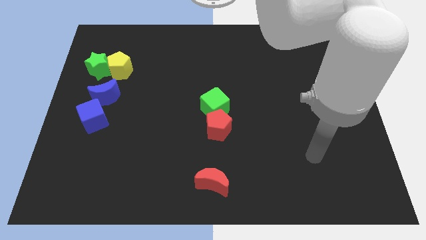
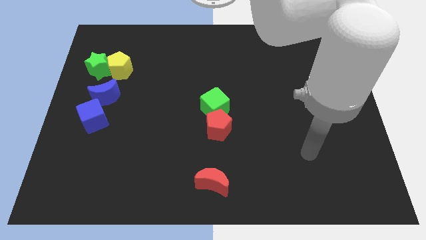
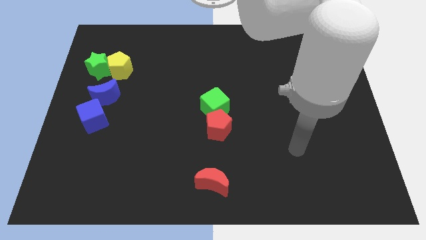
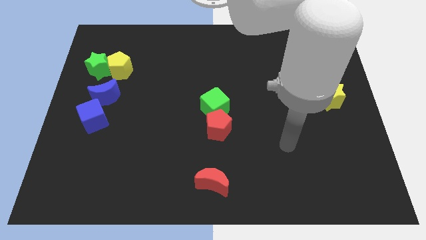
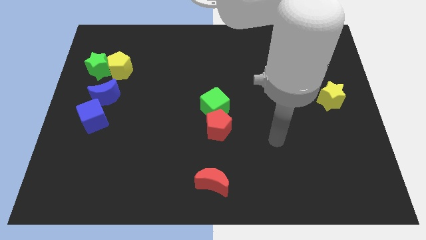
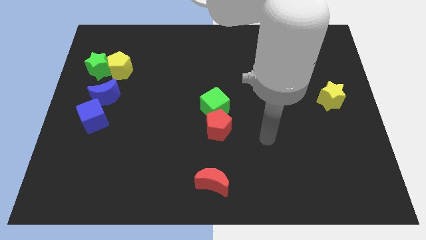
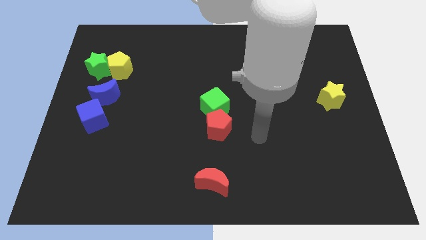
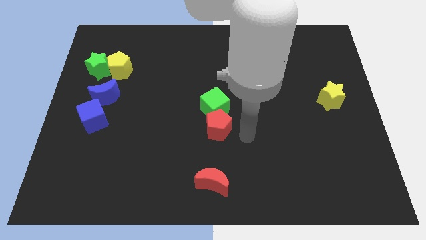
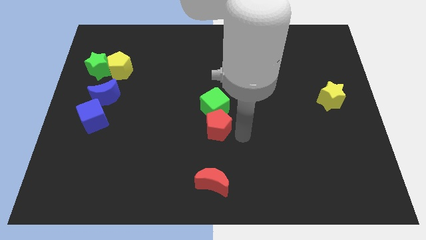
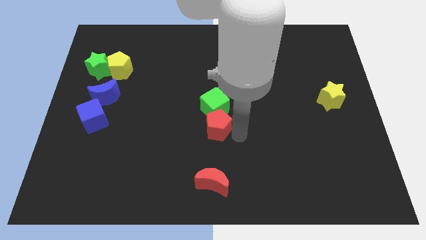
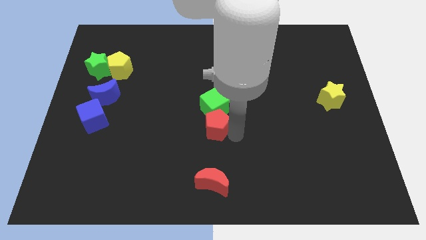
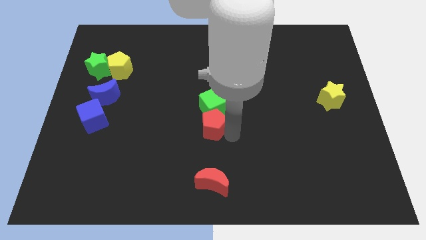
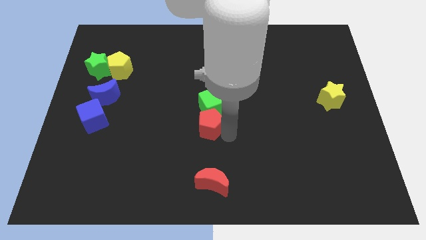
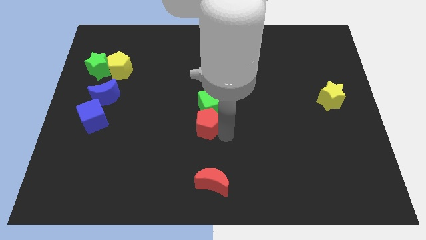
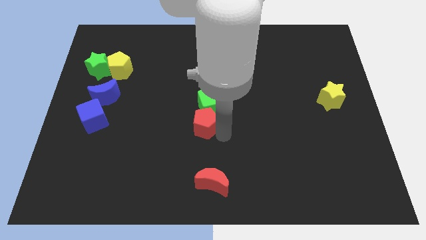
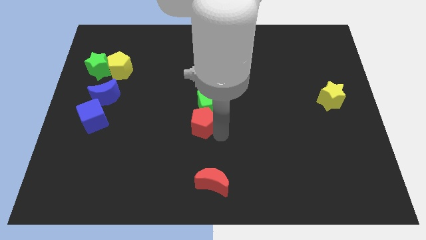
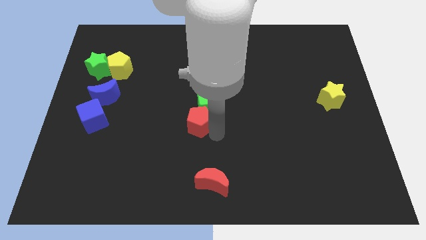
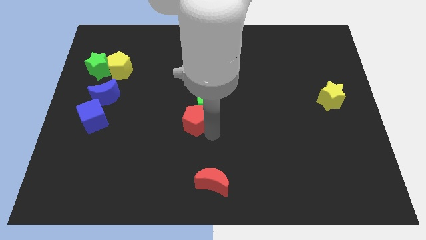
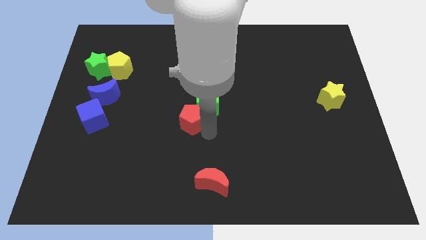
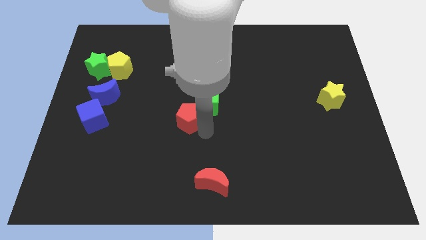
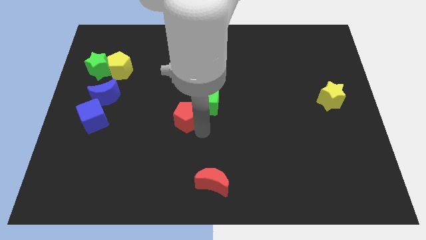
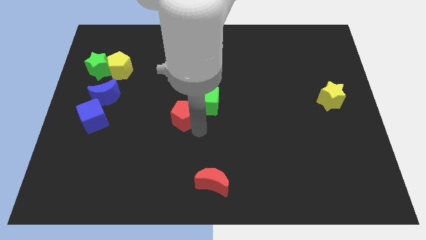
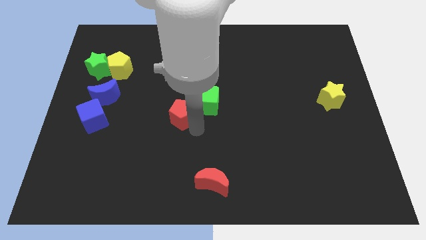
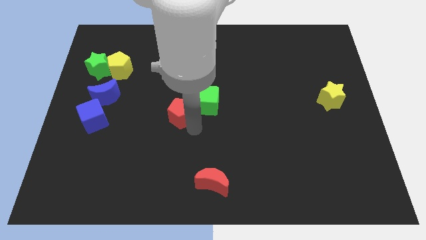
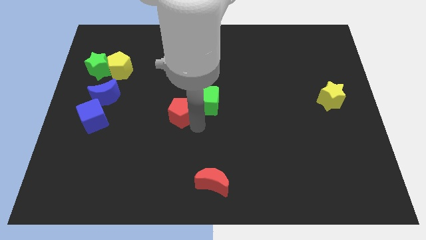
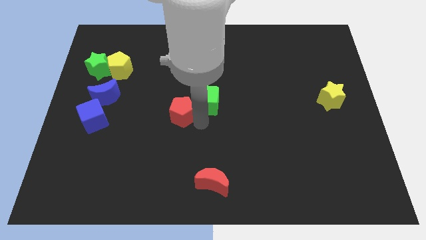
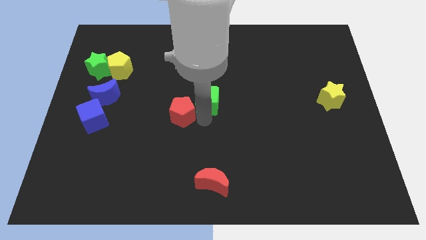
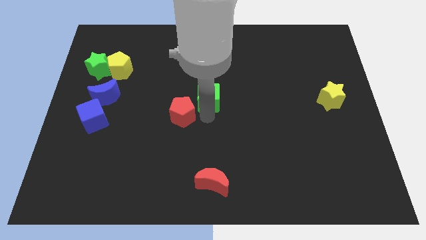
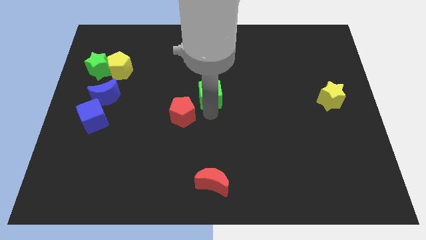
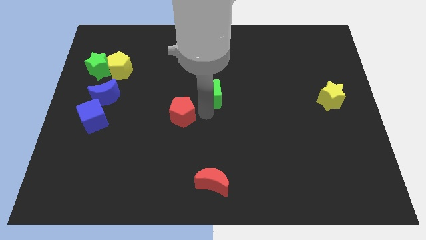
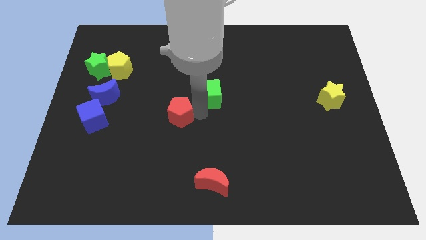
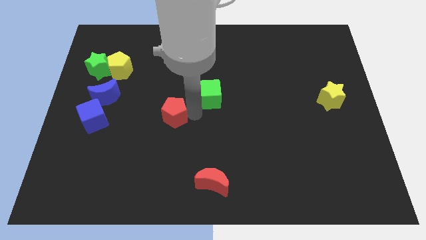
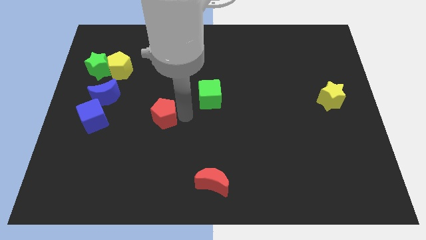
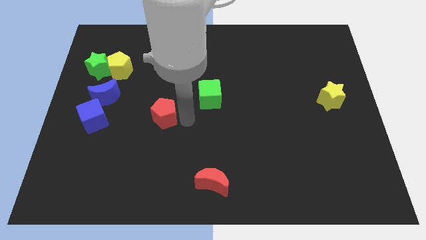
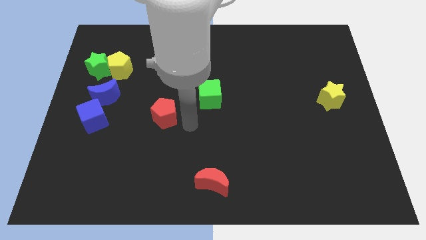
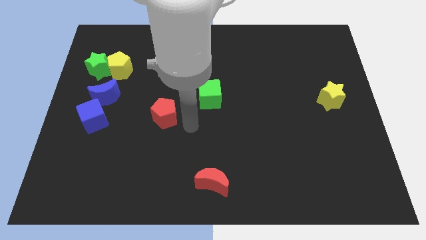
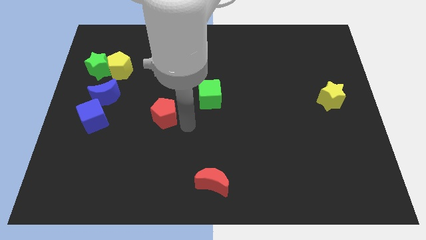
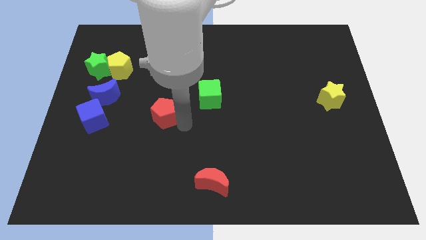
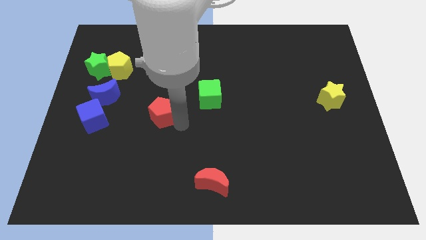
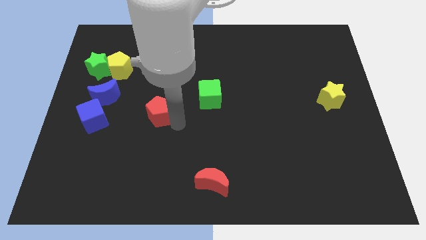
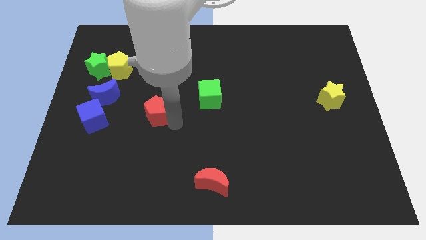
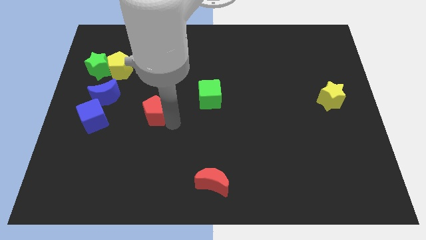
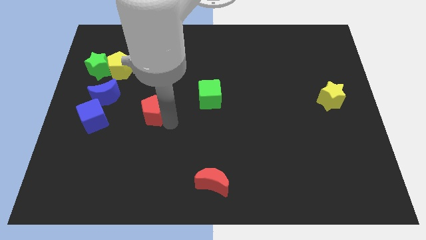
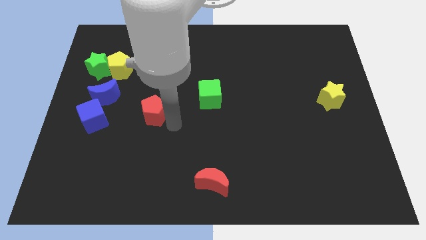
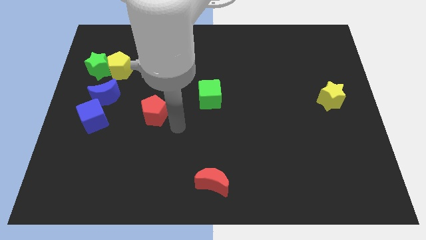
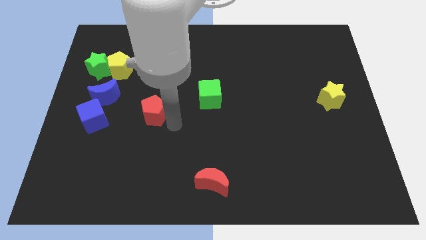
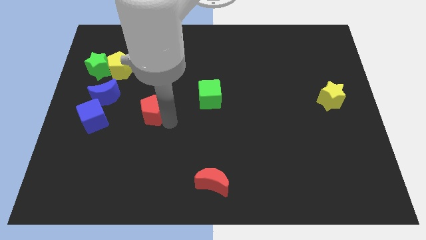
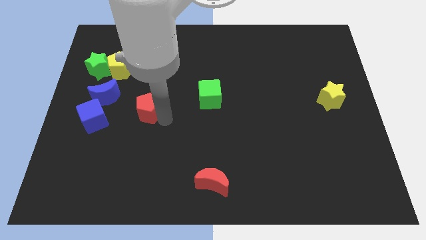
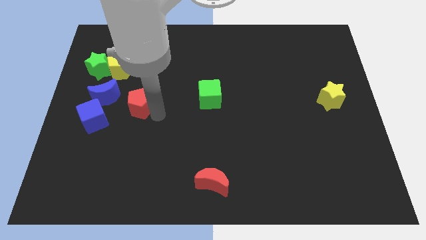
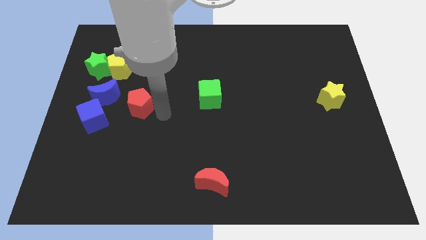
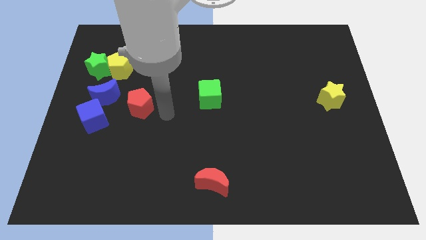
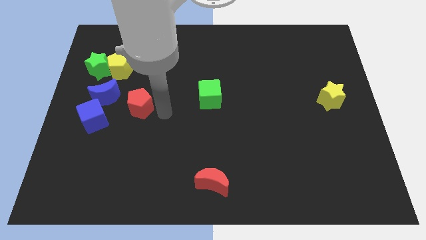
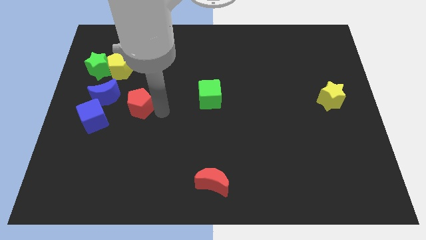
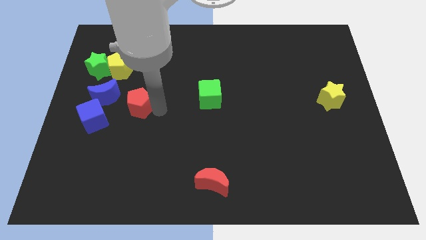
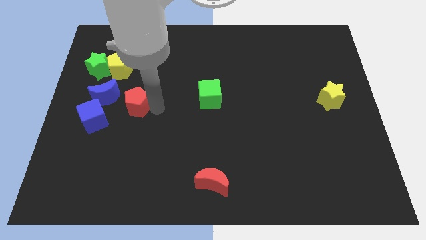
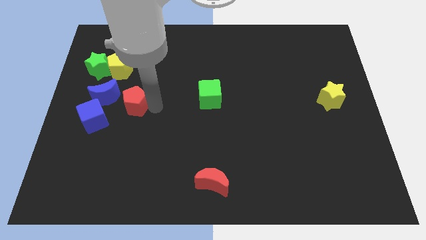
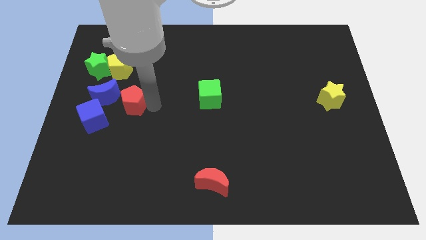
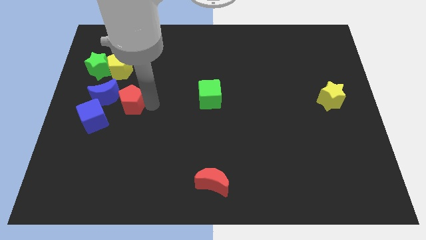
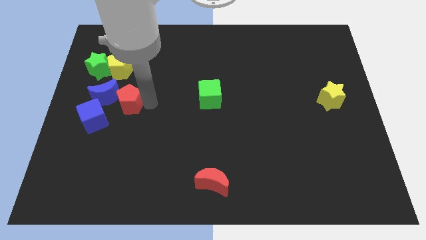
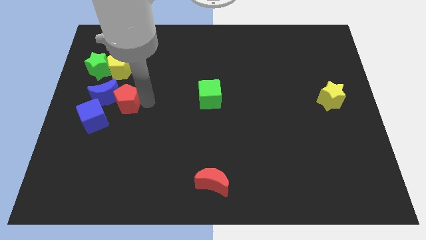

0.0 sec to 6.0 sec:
put the red pentagon next to the blue moon

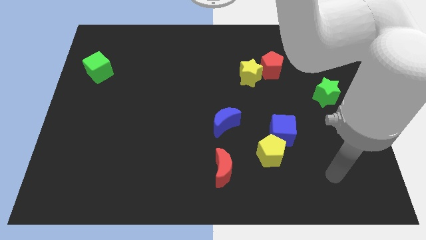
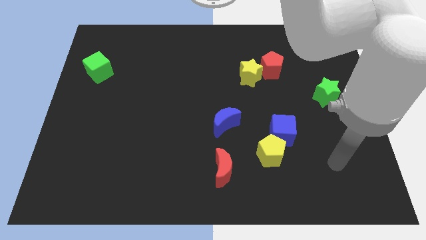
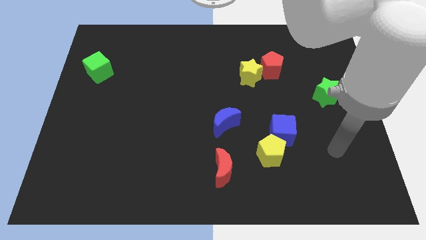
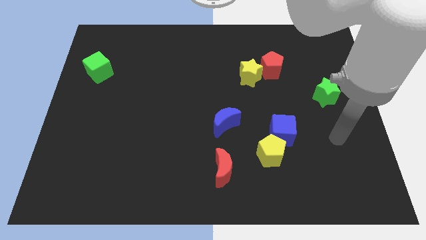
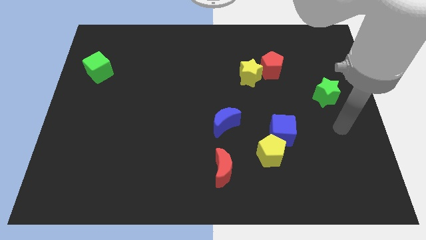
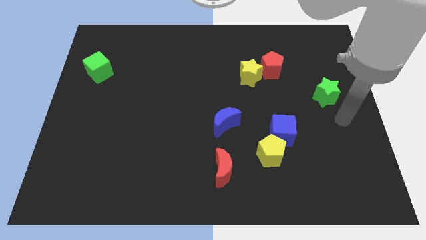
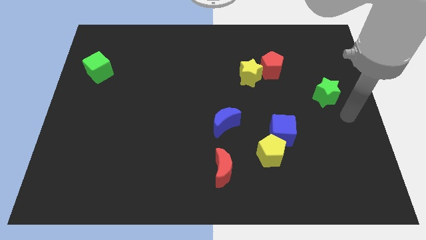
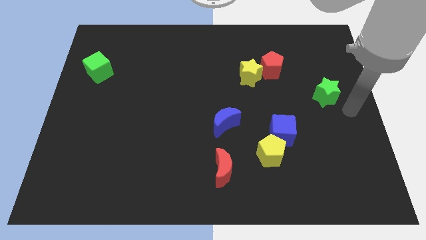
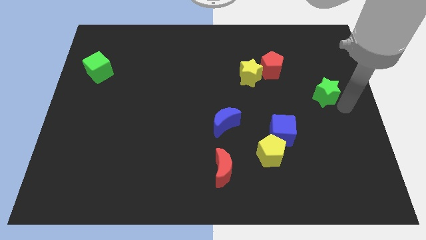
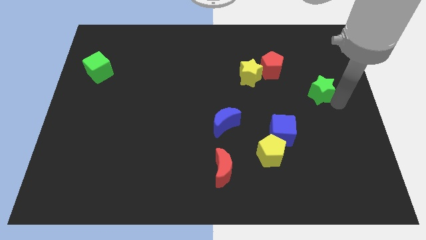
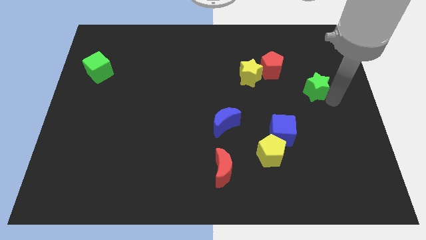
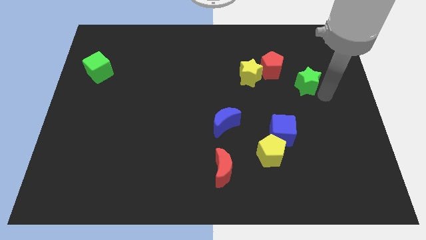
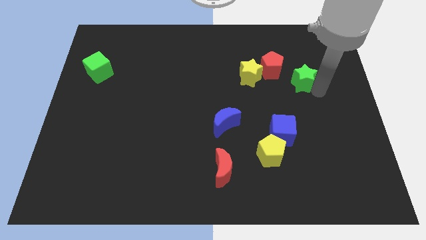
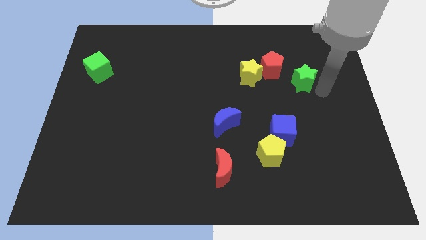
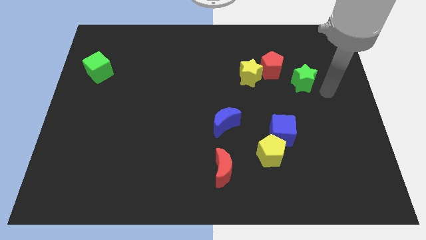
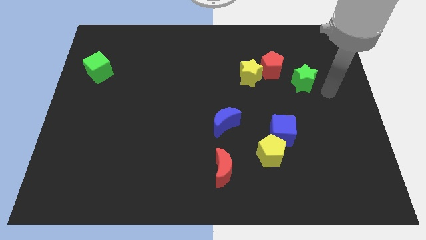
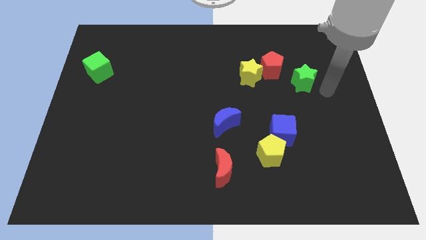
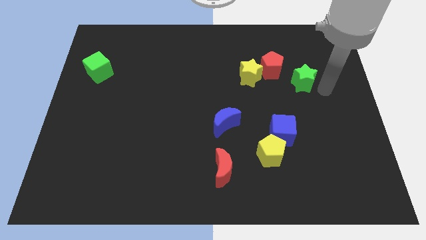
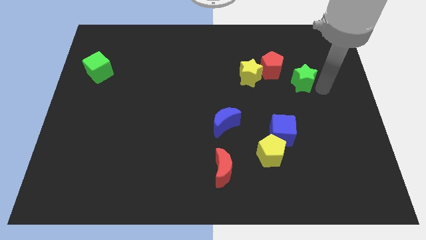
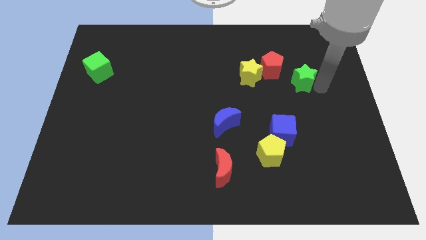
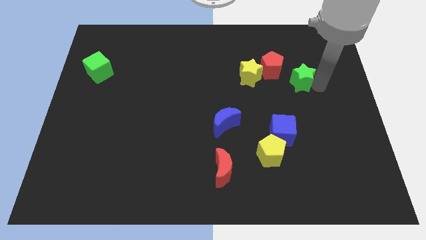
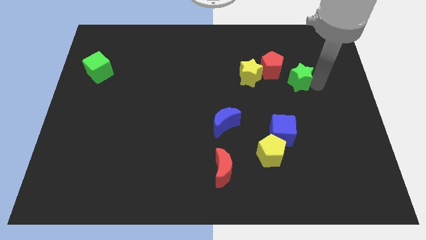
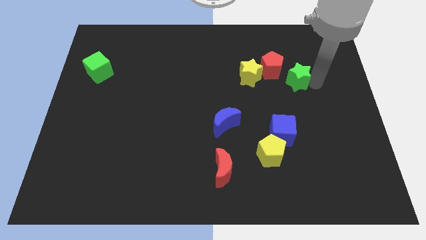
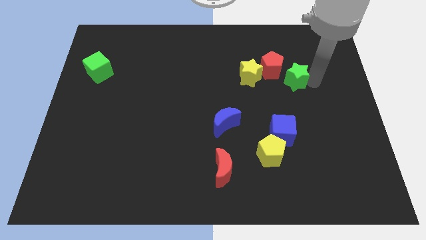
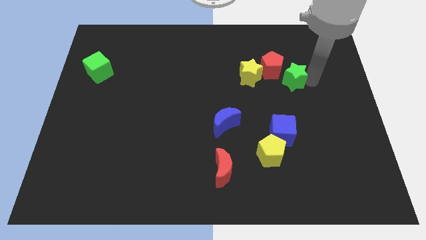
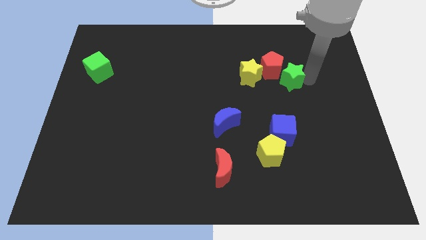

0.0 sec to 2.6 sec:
slide the green star to the red pentagon
